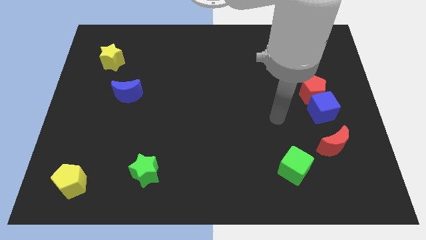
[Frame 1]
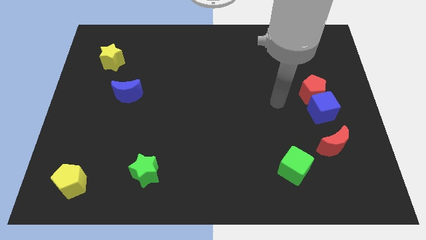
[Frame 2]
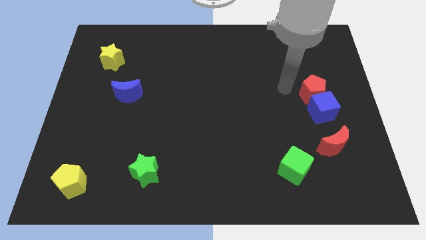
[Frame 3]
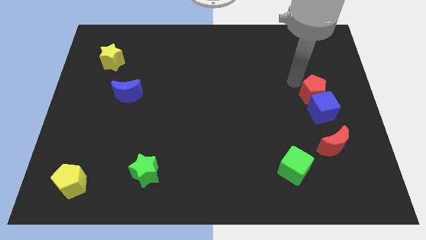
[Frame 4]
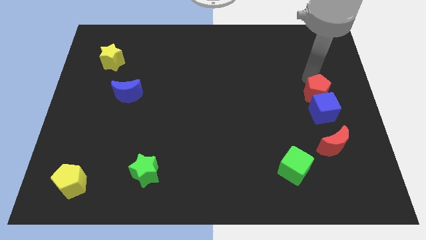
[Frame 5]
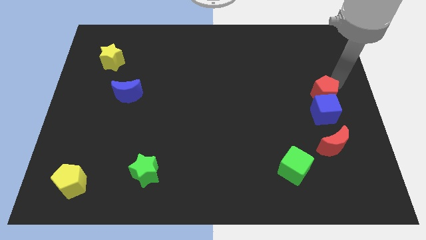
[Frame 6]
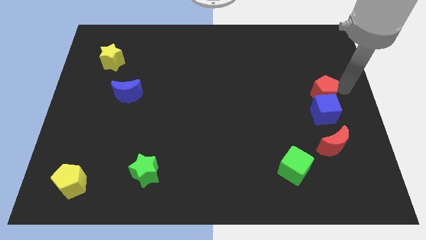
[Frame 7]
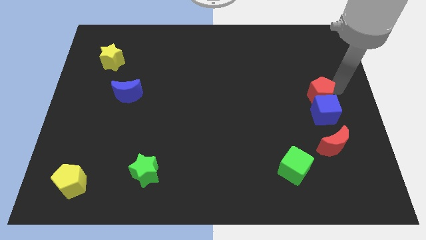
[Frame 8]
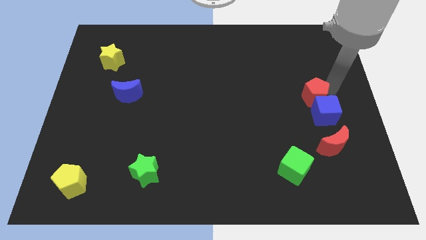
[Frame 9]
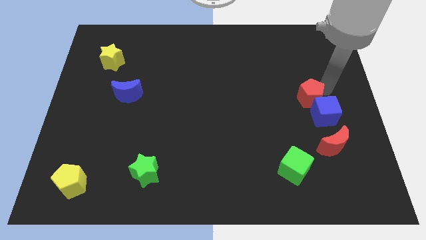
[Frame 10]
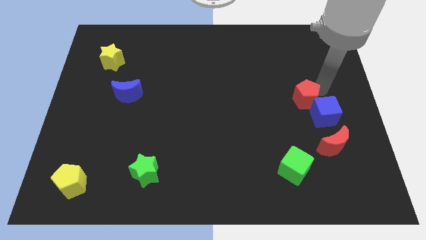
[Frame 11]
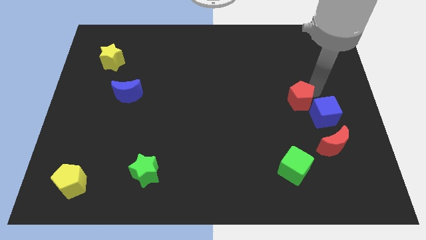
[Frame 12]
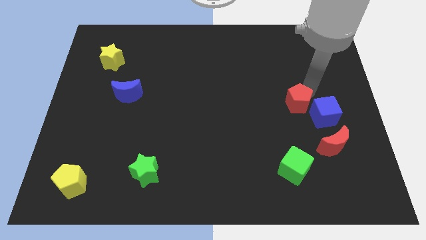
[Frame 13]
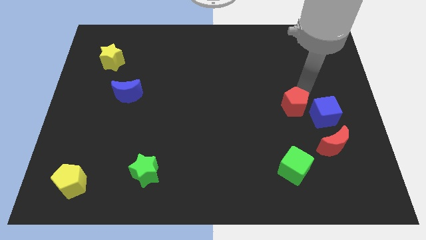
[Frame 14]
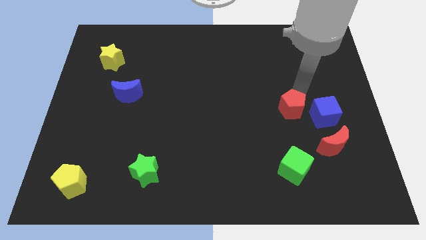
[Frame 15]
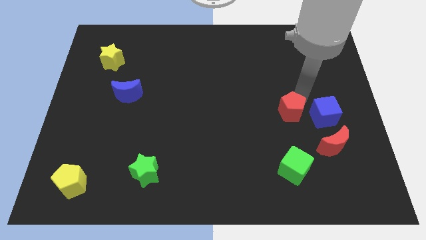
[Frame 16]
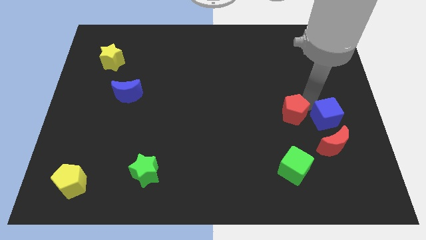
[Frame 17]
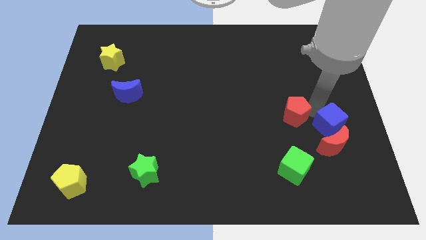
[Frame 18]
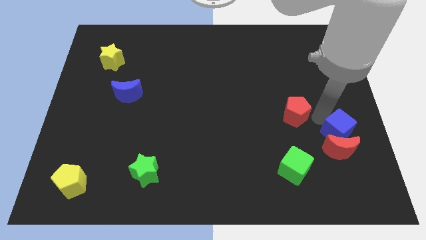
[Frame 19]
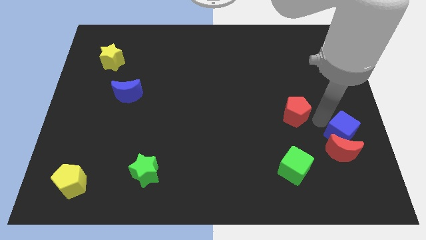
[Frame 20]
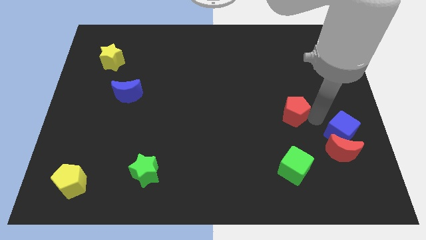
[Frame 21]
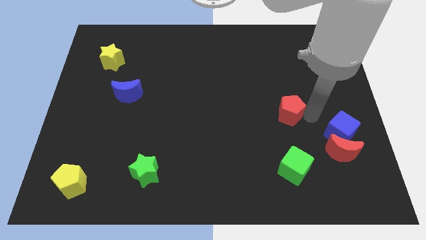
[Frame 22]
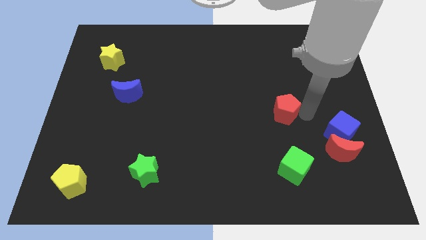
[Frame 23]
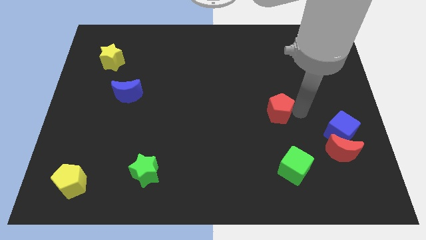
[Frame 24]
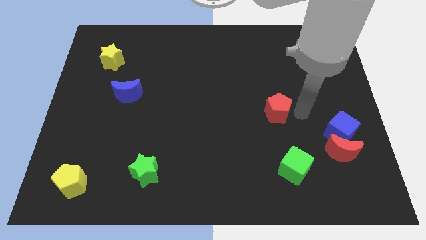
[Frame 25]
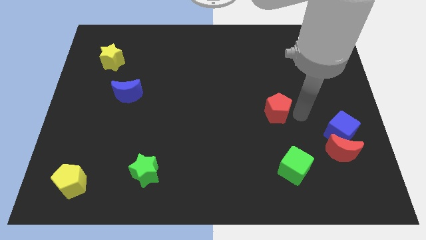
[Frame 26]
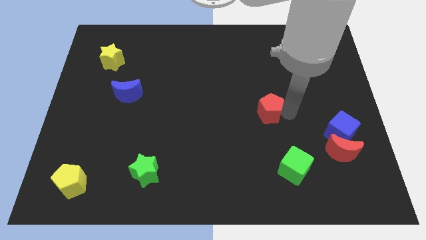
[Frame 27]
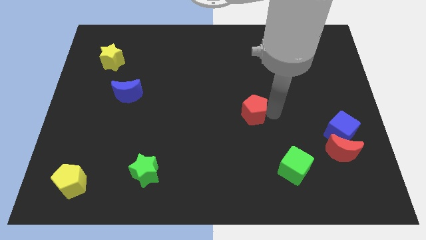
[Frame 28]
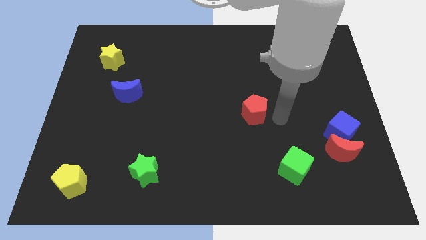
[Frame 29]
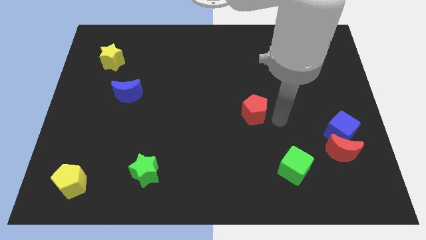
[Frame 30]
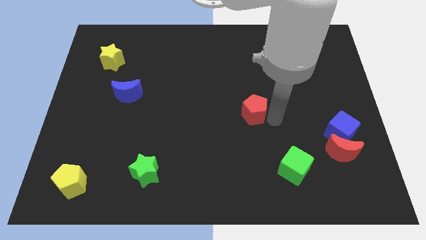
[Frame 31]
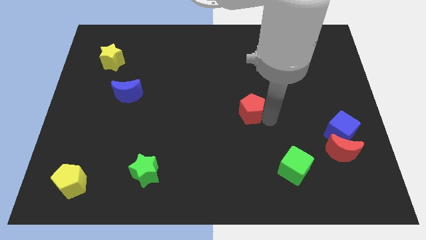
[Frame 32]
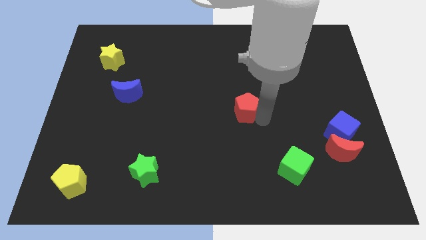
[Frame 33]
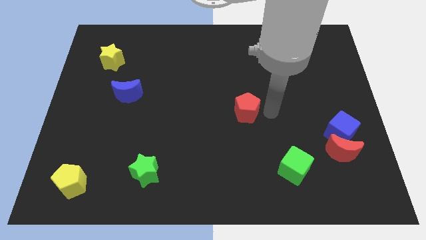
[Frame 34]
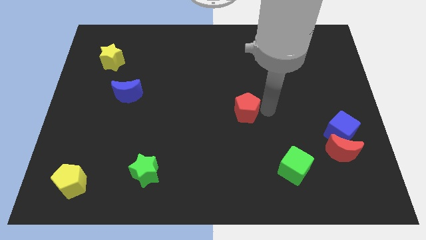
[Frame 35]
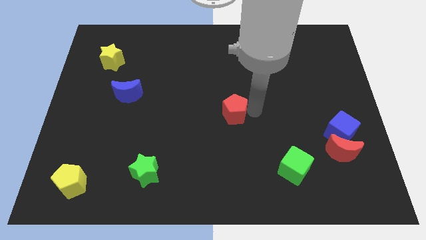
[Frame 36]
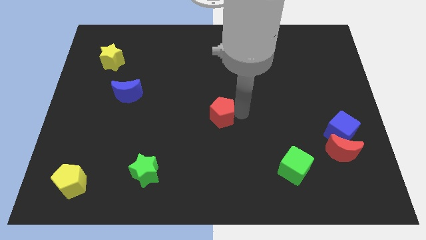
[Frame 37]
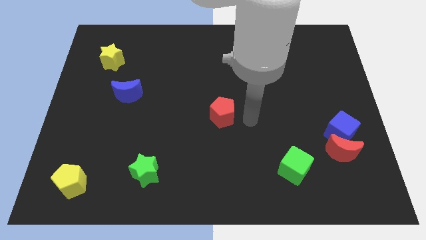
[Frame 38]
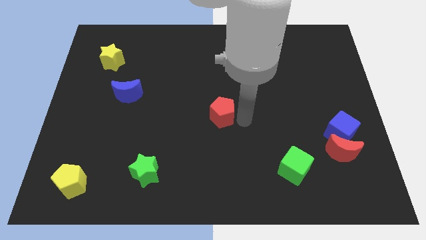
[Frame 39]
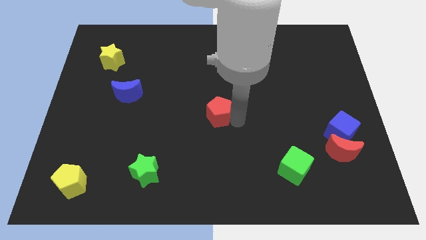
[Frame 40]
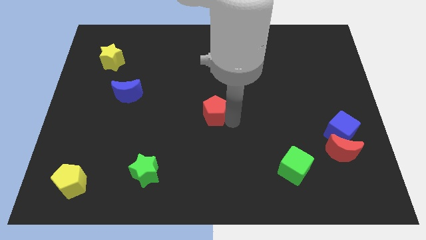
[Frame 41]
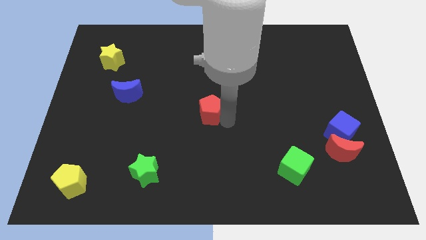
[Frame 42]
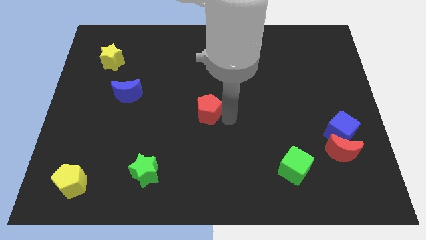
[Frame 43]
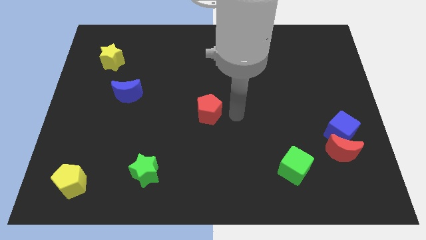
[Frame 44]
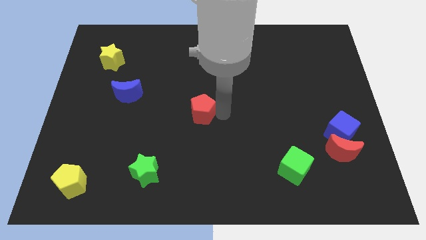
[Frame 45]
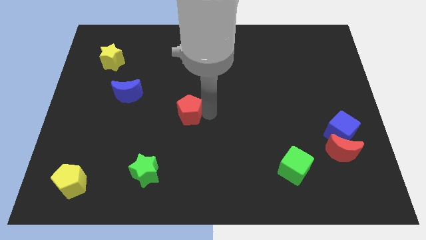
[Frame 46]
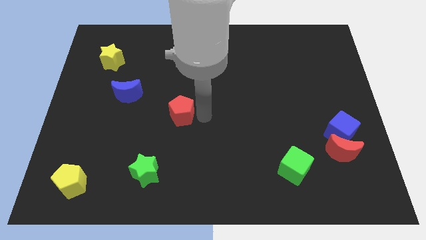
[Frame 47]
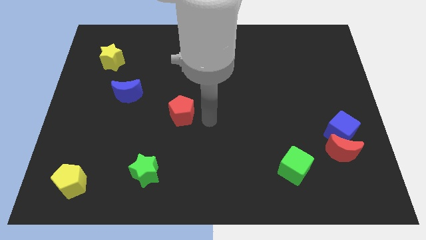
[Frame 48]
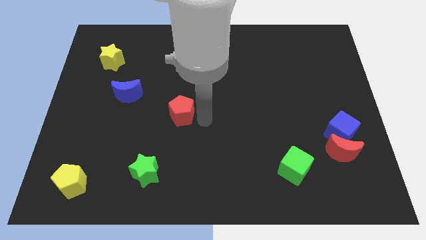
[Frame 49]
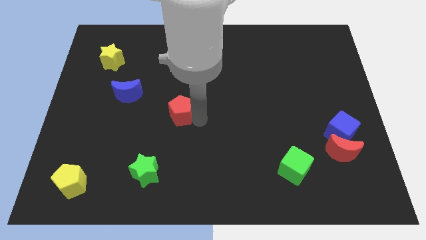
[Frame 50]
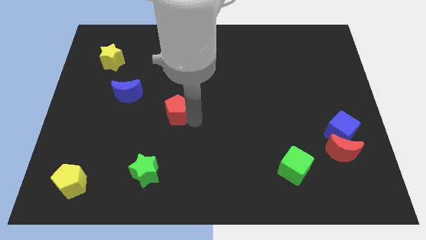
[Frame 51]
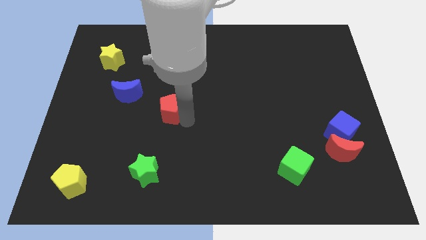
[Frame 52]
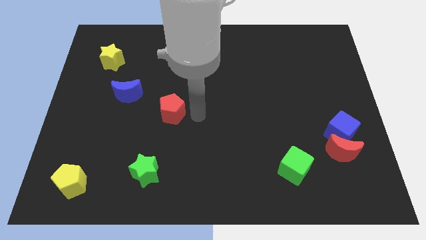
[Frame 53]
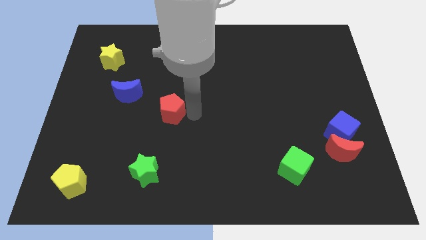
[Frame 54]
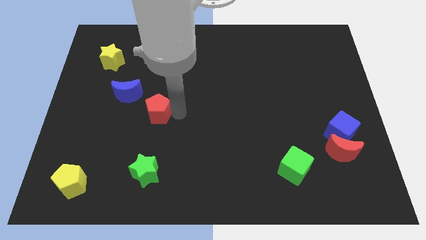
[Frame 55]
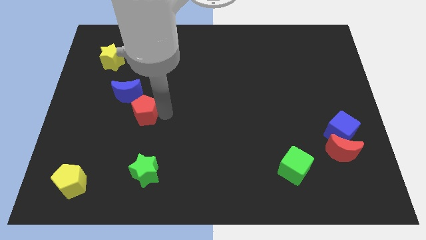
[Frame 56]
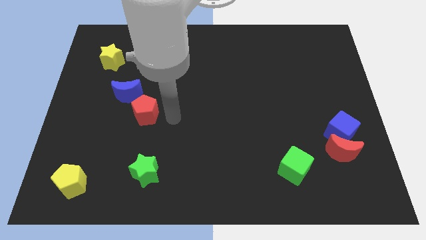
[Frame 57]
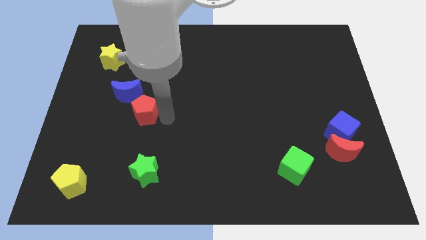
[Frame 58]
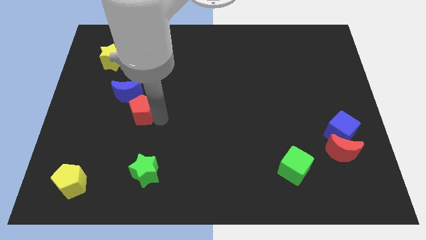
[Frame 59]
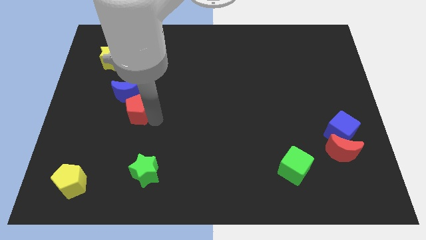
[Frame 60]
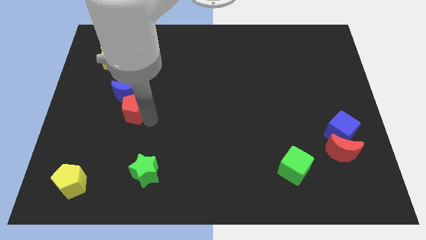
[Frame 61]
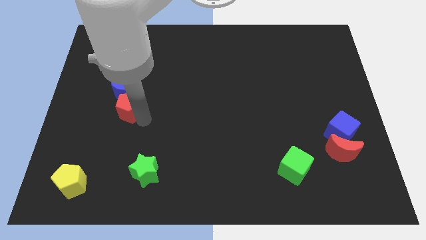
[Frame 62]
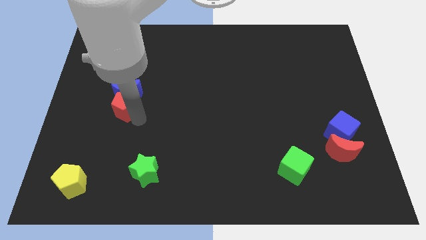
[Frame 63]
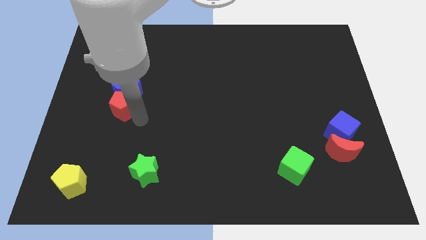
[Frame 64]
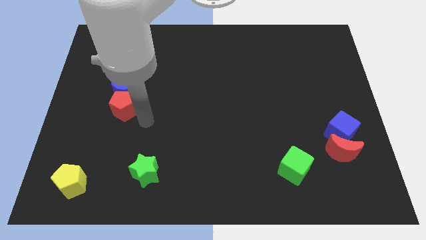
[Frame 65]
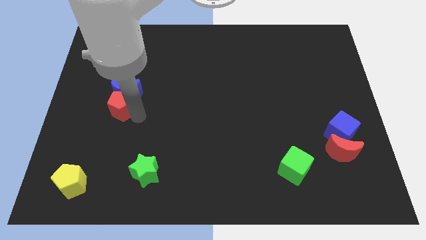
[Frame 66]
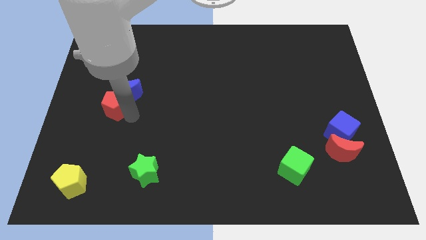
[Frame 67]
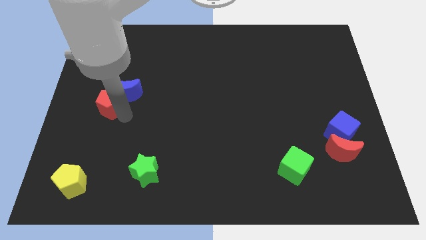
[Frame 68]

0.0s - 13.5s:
slide the red pentagon to the bottom of the yellow star
